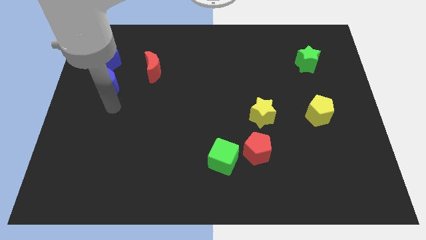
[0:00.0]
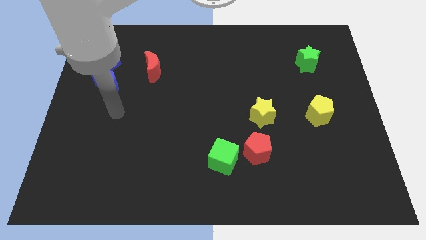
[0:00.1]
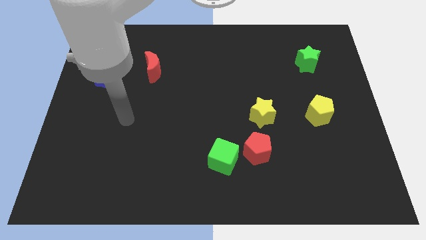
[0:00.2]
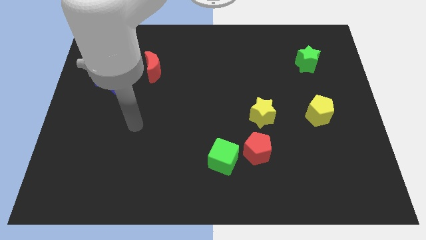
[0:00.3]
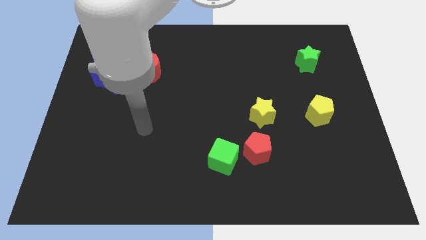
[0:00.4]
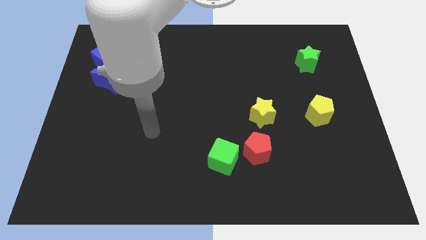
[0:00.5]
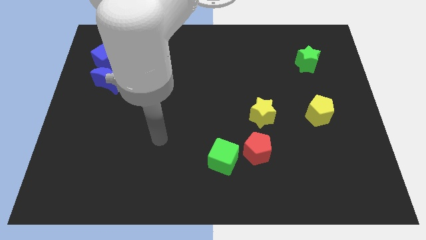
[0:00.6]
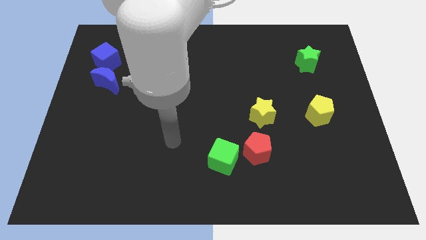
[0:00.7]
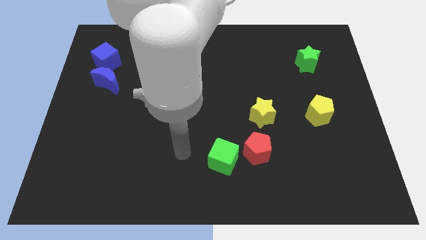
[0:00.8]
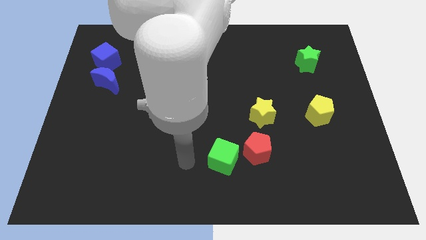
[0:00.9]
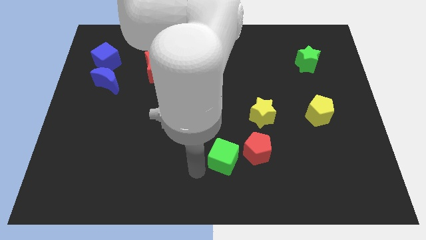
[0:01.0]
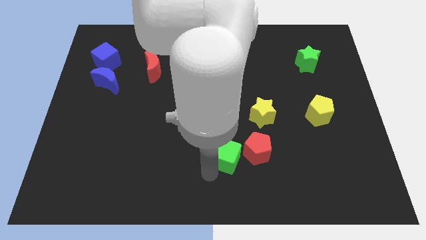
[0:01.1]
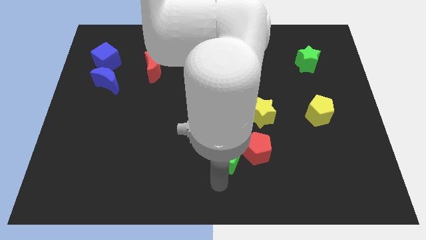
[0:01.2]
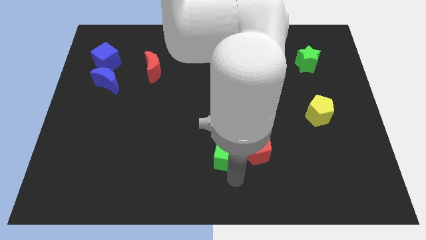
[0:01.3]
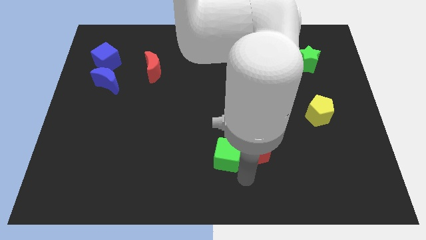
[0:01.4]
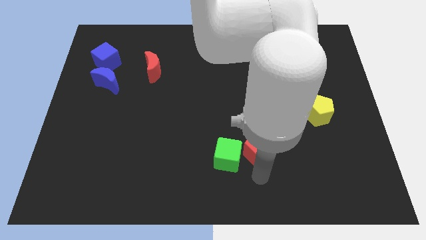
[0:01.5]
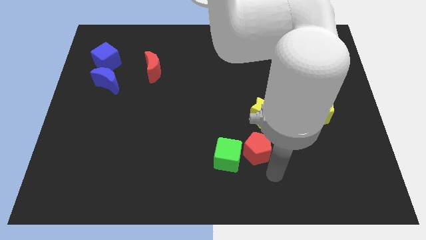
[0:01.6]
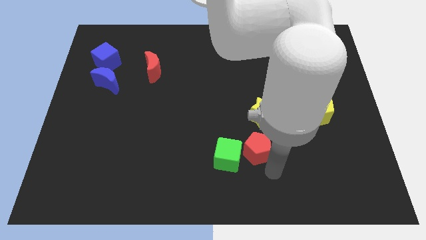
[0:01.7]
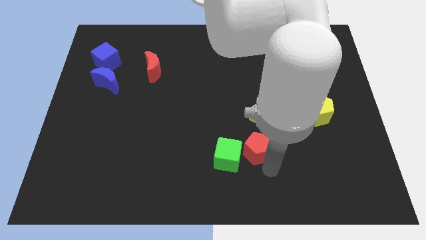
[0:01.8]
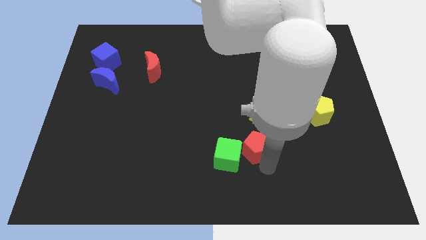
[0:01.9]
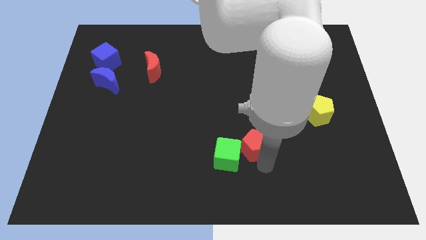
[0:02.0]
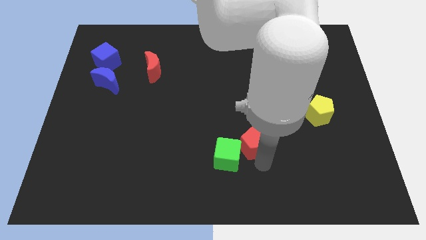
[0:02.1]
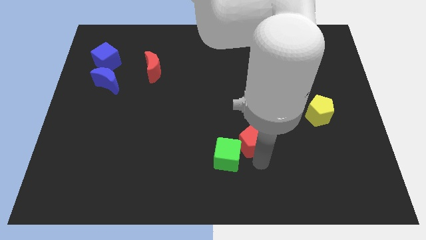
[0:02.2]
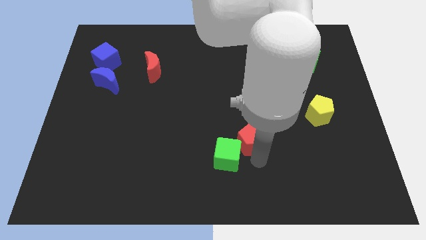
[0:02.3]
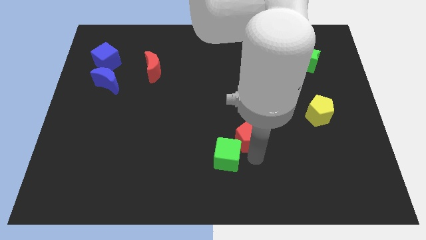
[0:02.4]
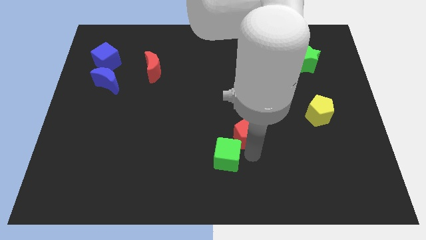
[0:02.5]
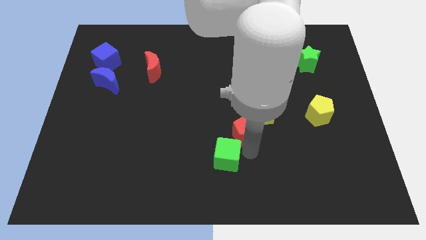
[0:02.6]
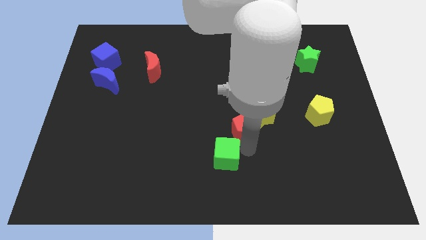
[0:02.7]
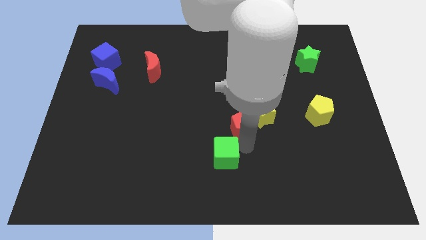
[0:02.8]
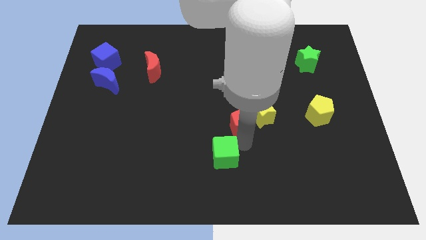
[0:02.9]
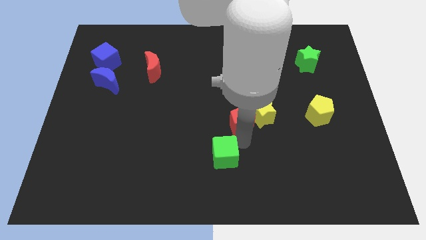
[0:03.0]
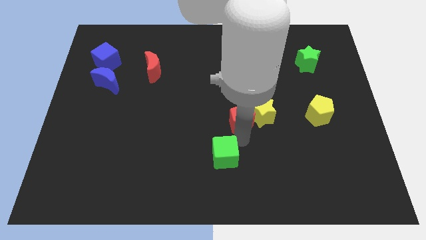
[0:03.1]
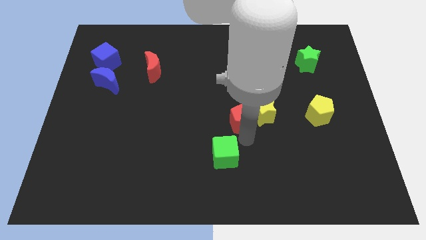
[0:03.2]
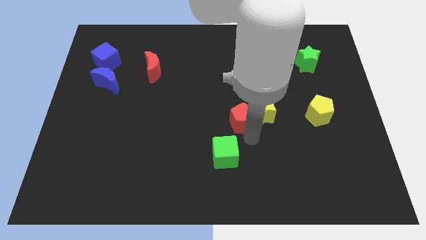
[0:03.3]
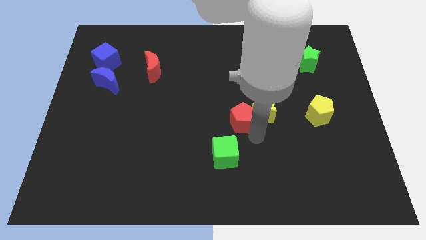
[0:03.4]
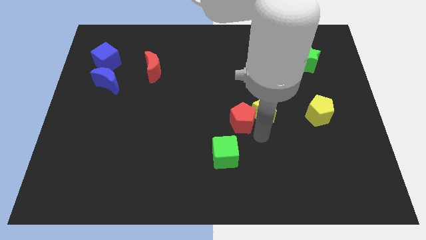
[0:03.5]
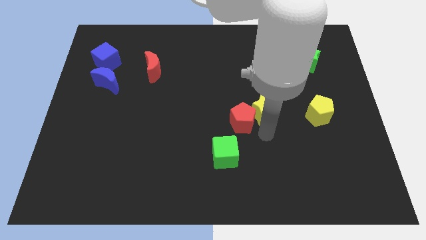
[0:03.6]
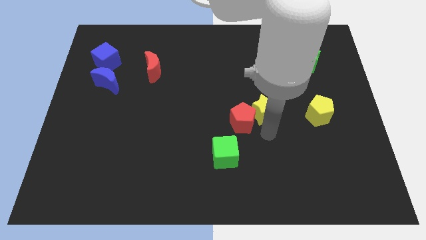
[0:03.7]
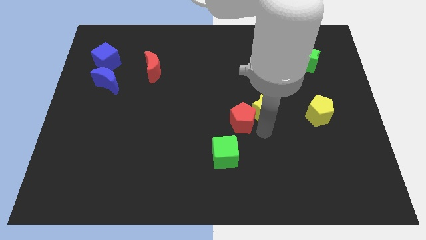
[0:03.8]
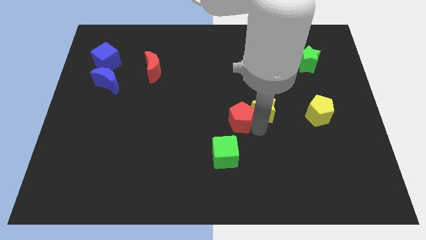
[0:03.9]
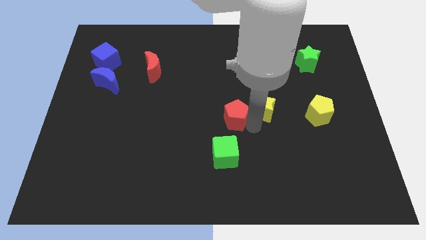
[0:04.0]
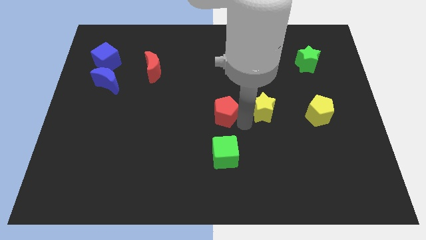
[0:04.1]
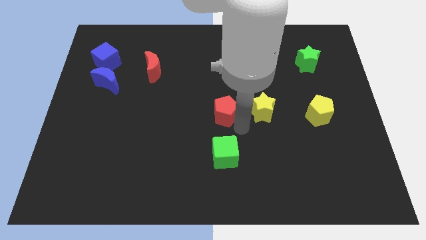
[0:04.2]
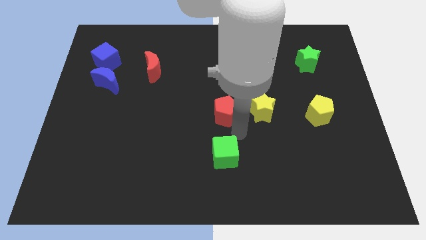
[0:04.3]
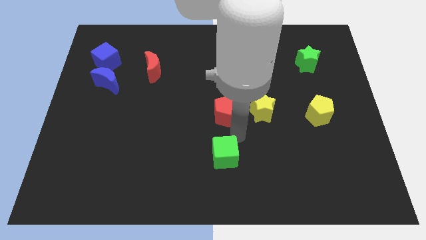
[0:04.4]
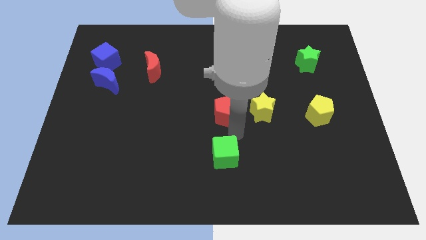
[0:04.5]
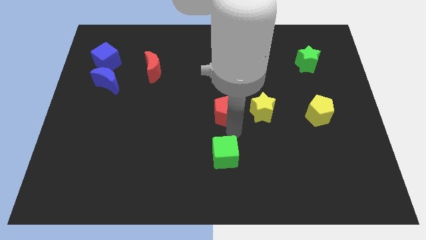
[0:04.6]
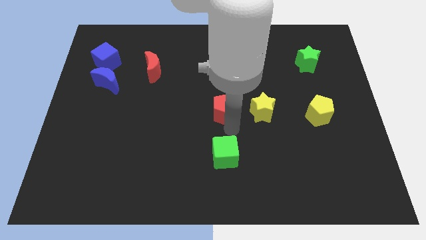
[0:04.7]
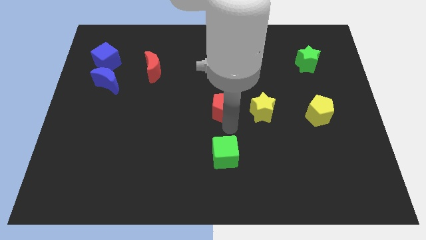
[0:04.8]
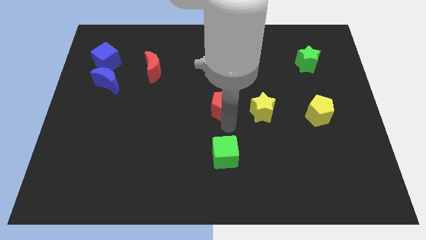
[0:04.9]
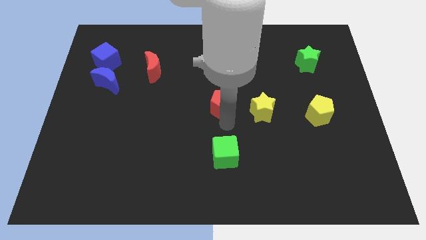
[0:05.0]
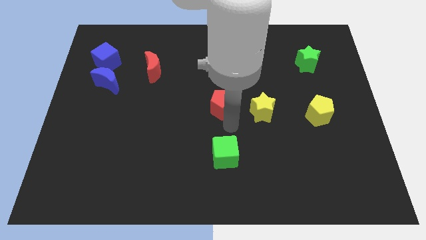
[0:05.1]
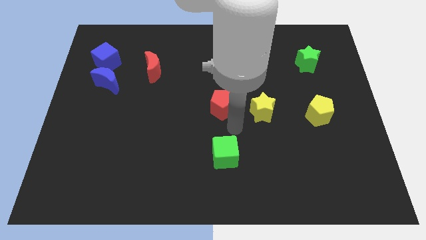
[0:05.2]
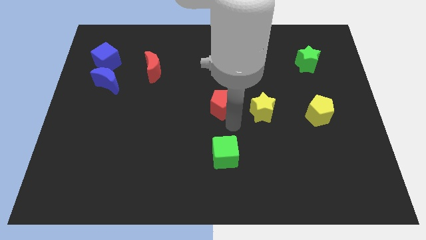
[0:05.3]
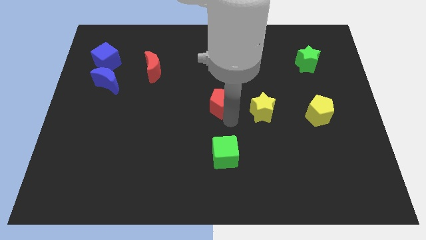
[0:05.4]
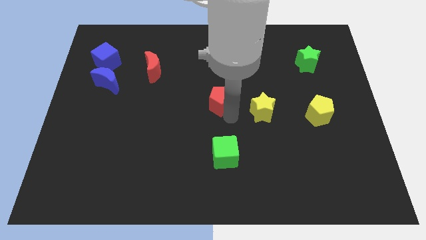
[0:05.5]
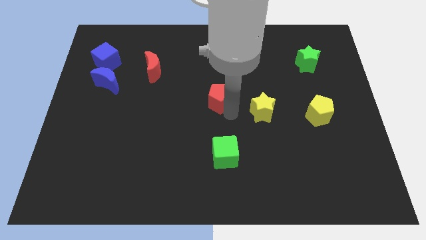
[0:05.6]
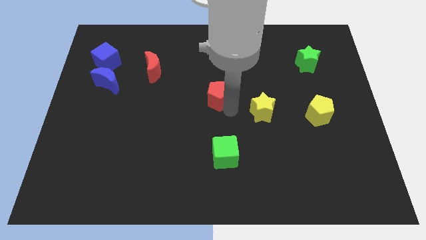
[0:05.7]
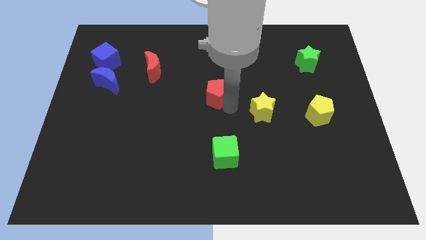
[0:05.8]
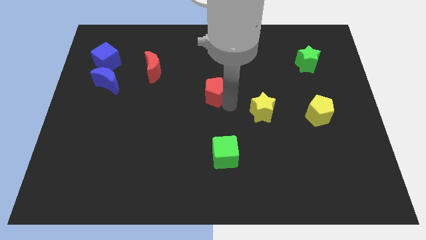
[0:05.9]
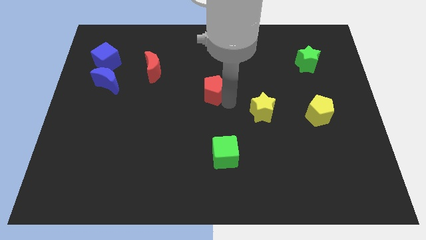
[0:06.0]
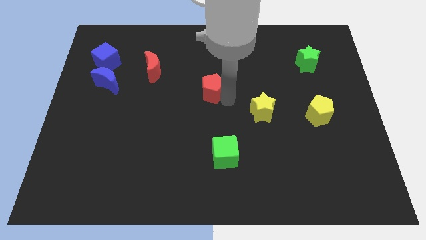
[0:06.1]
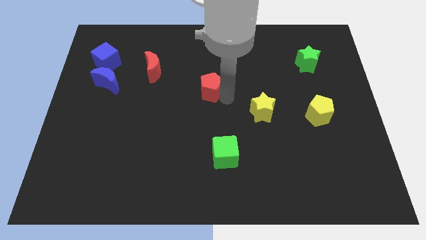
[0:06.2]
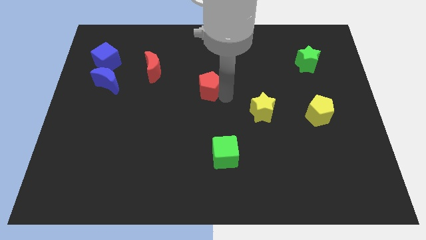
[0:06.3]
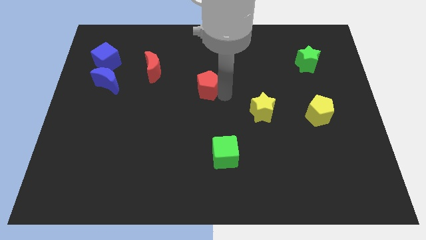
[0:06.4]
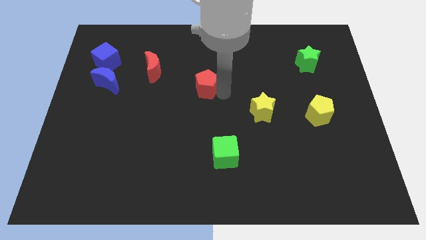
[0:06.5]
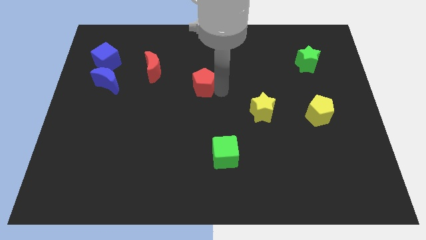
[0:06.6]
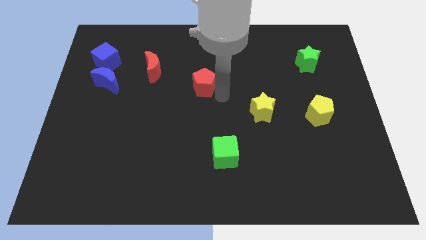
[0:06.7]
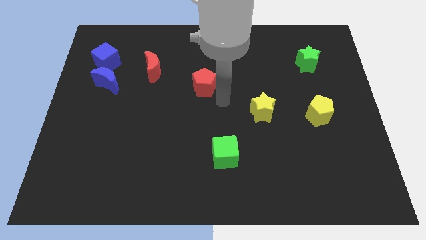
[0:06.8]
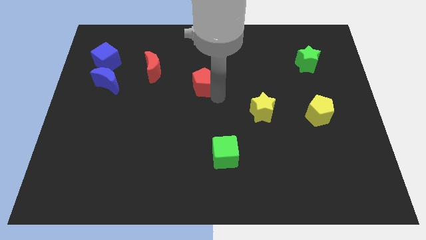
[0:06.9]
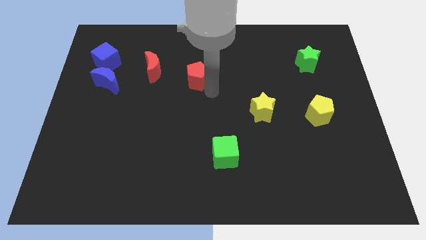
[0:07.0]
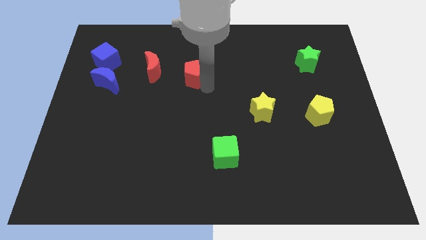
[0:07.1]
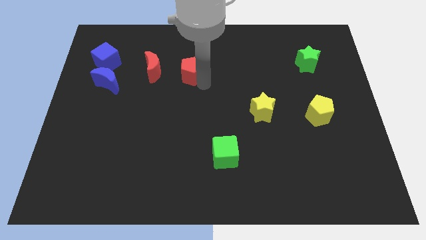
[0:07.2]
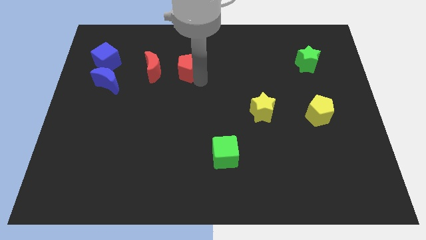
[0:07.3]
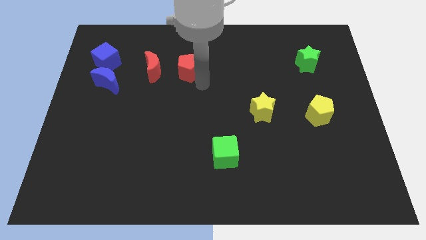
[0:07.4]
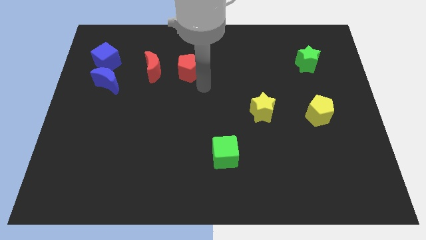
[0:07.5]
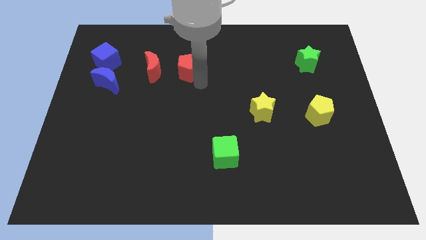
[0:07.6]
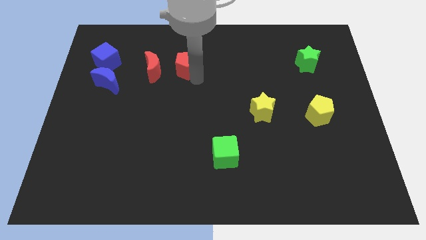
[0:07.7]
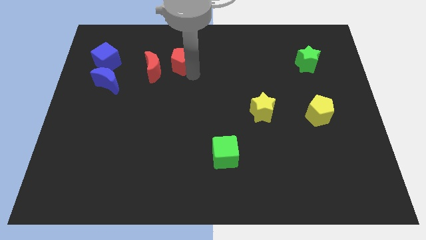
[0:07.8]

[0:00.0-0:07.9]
push the red pentagon to the top right of the red moon
